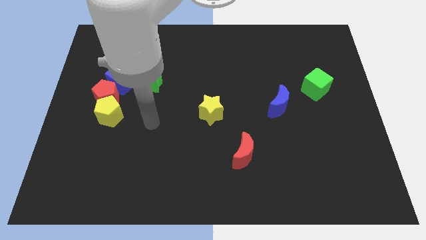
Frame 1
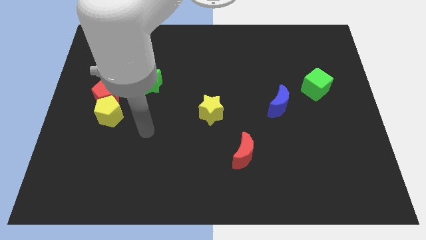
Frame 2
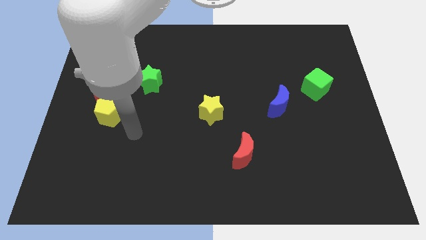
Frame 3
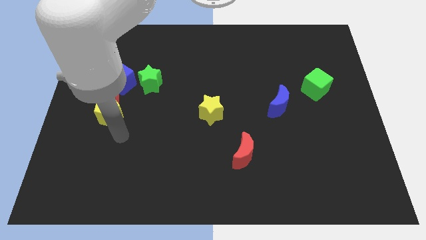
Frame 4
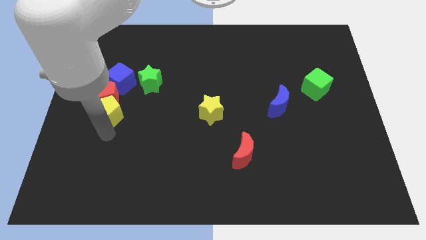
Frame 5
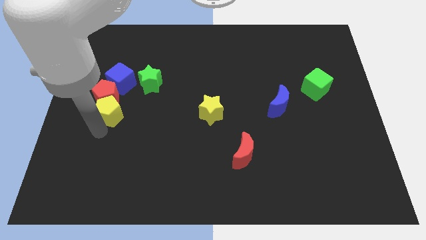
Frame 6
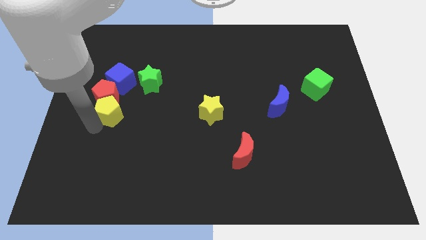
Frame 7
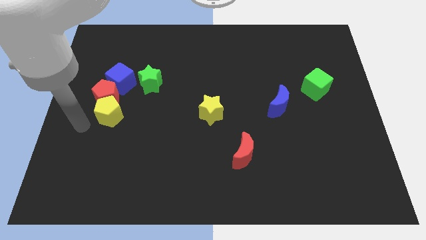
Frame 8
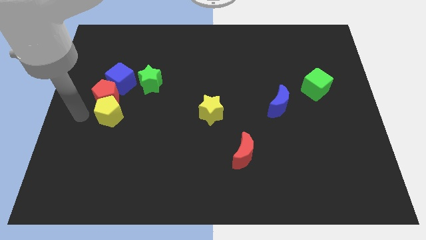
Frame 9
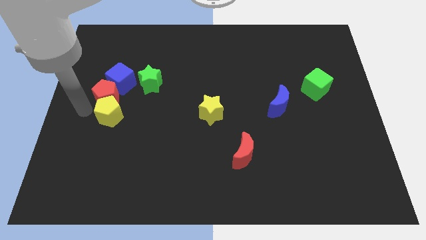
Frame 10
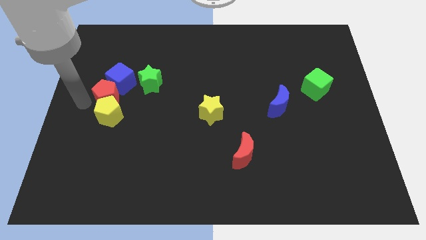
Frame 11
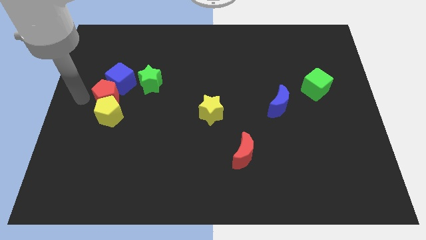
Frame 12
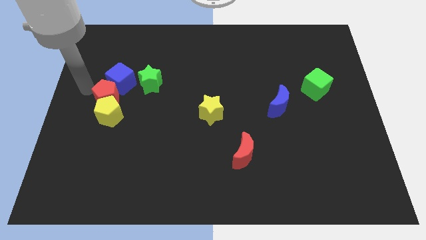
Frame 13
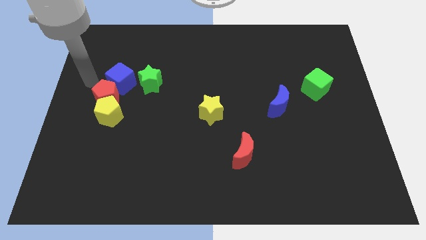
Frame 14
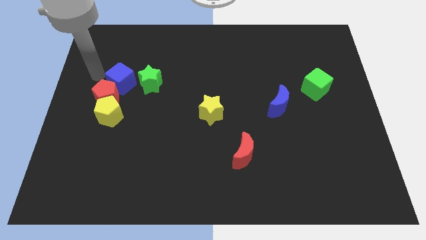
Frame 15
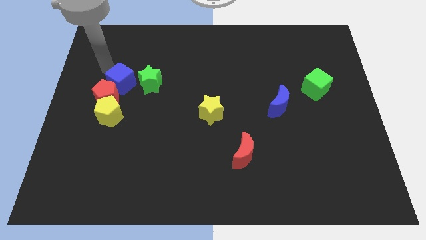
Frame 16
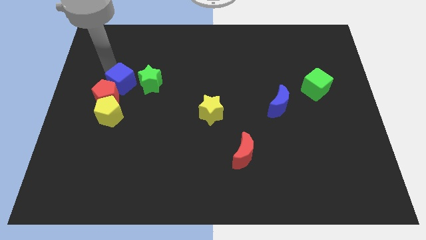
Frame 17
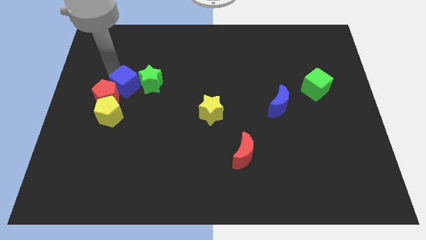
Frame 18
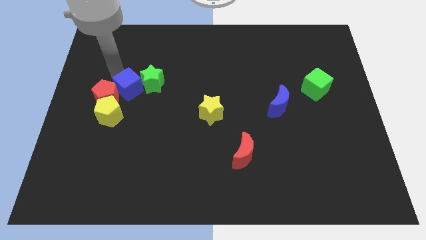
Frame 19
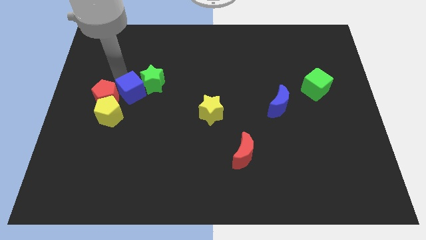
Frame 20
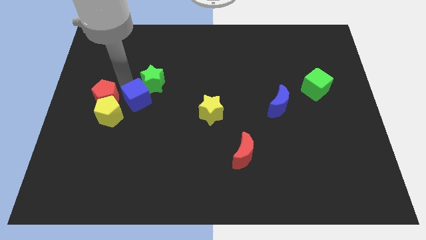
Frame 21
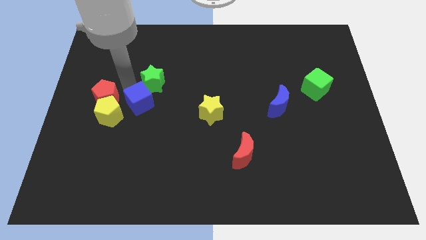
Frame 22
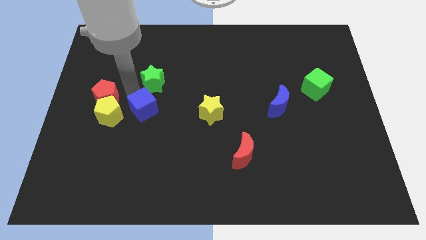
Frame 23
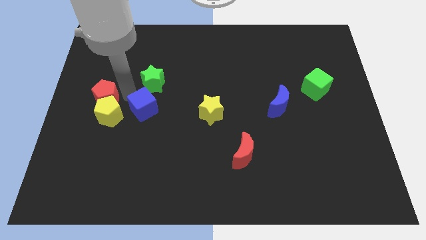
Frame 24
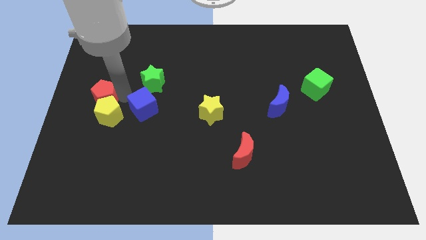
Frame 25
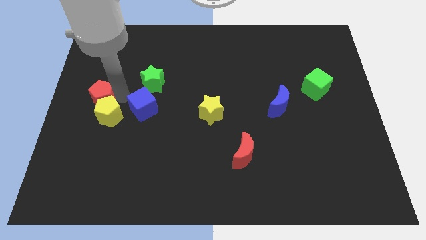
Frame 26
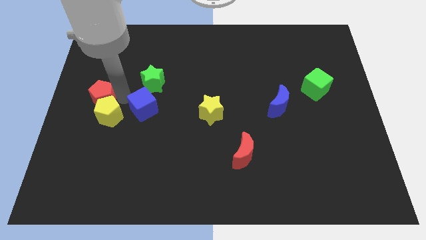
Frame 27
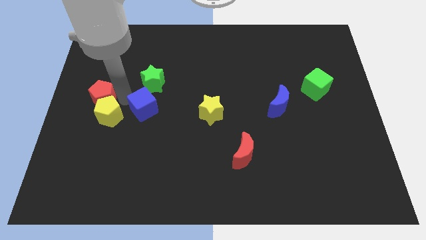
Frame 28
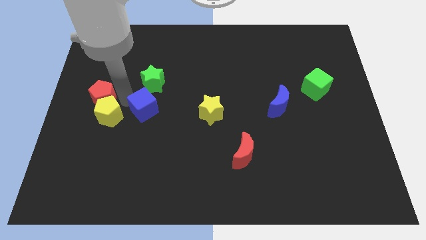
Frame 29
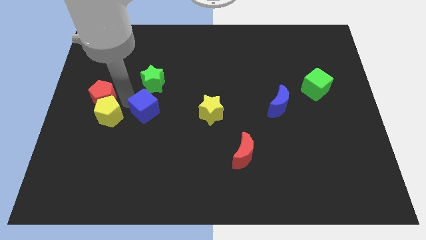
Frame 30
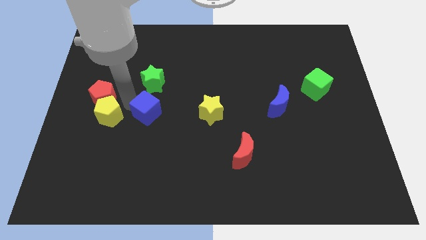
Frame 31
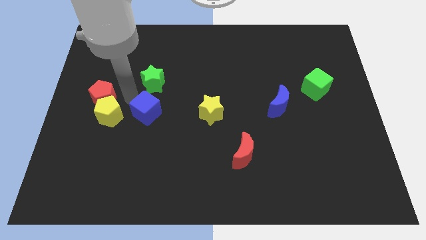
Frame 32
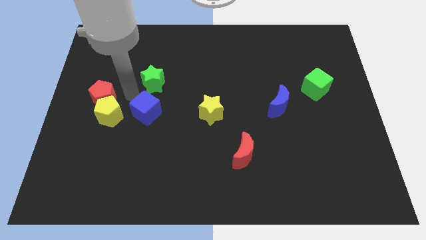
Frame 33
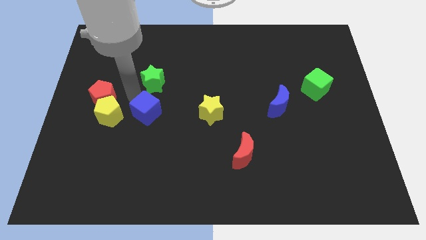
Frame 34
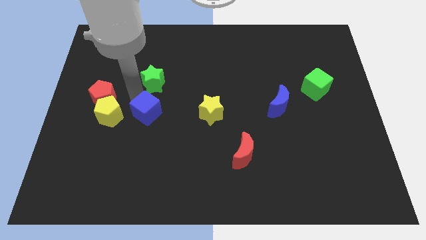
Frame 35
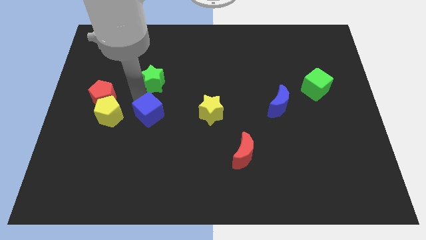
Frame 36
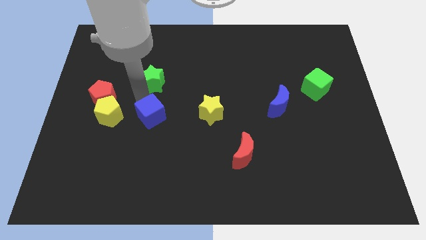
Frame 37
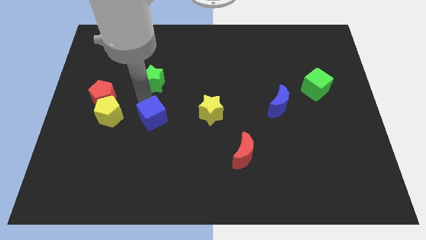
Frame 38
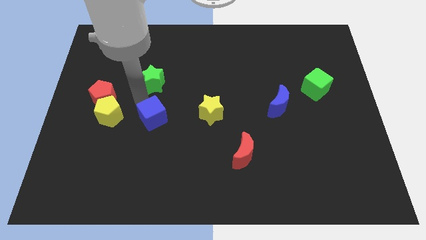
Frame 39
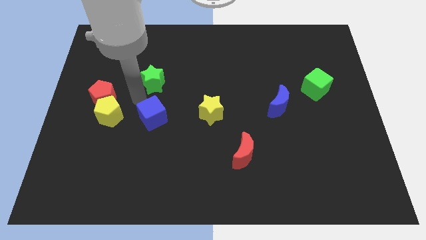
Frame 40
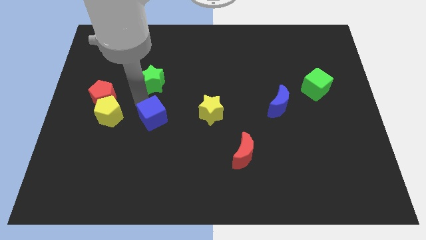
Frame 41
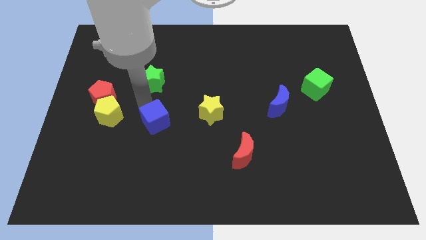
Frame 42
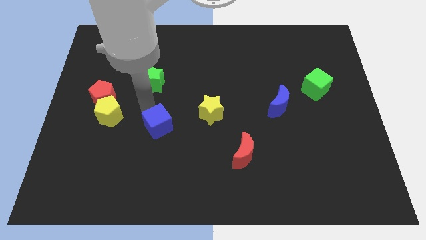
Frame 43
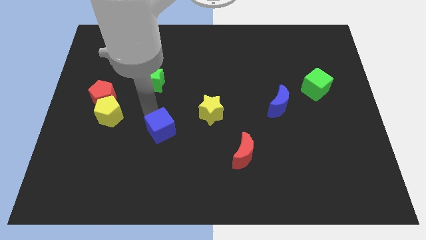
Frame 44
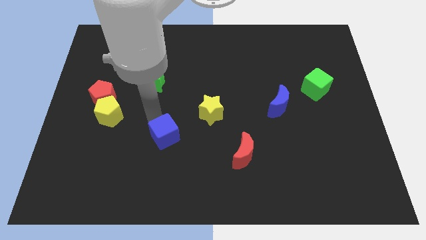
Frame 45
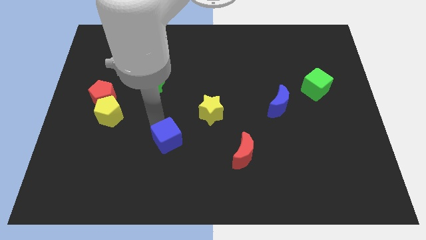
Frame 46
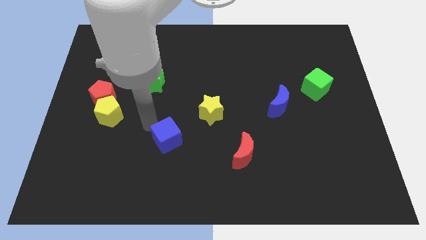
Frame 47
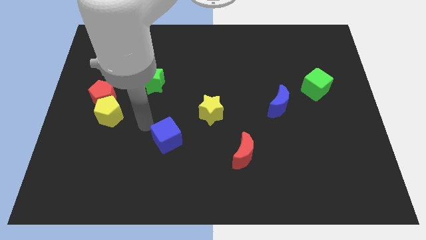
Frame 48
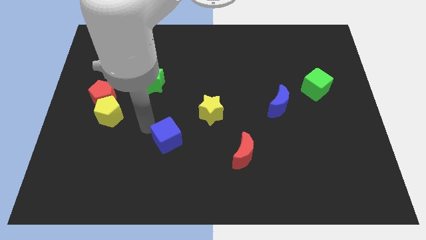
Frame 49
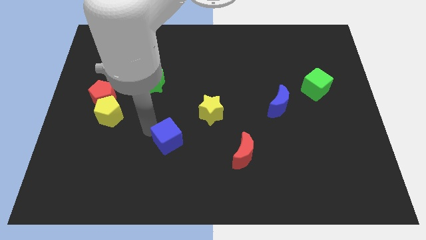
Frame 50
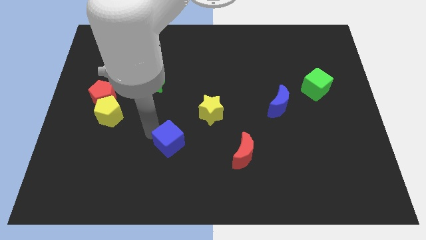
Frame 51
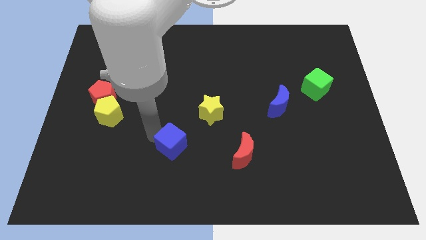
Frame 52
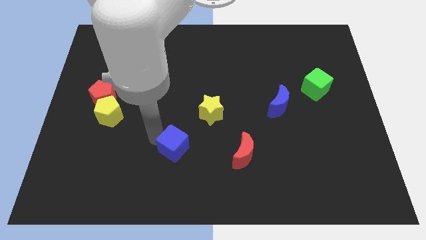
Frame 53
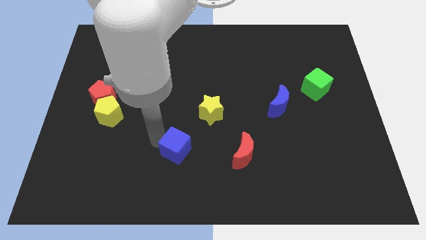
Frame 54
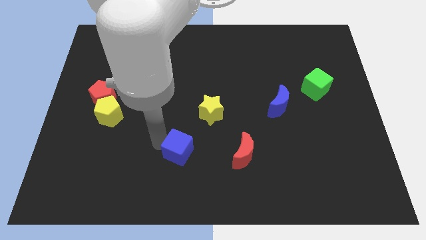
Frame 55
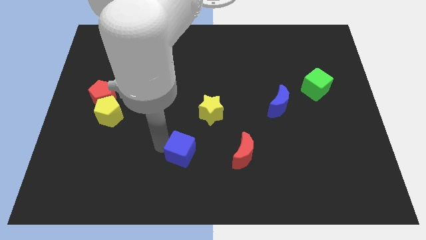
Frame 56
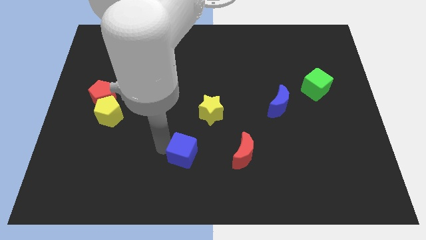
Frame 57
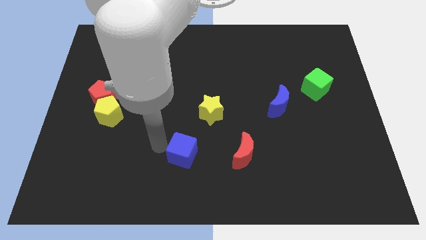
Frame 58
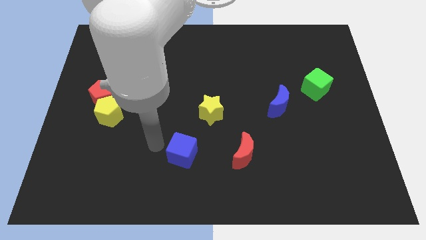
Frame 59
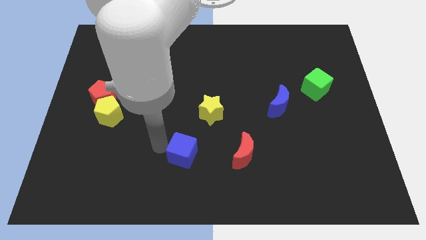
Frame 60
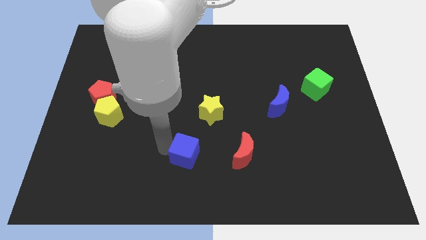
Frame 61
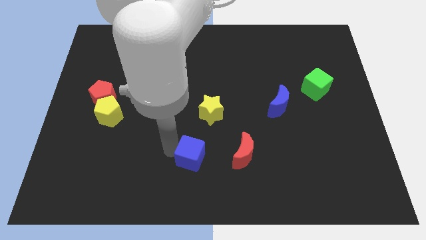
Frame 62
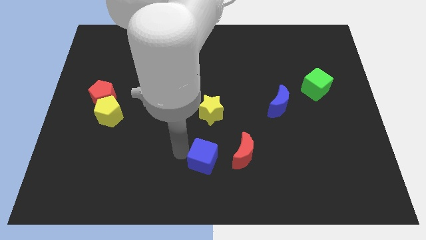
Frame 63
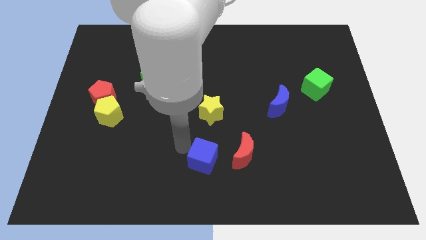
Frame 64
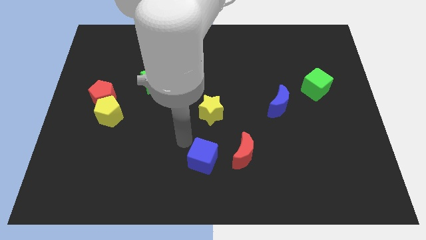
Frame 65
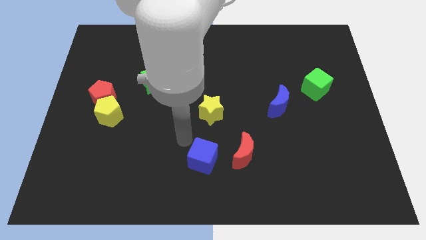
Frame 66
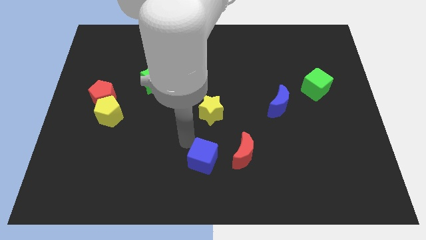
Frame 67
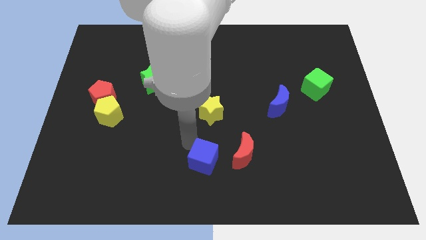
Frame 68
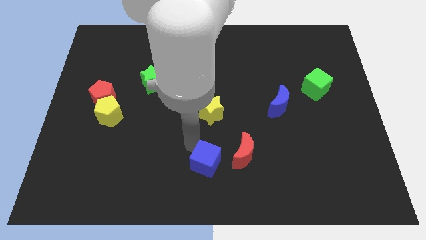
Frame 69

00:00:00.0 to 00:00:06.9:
put the blue cube to the bottom left of the red moon
